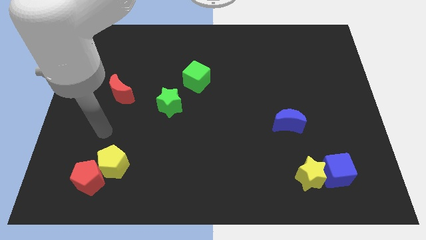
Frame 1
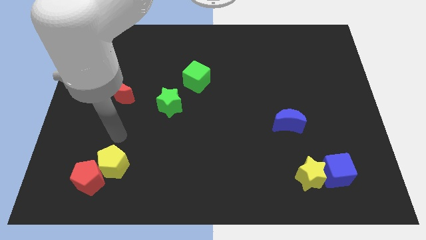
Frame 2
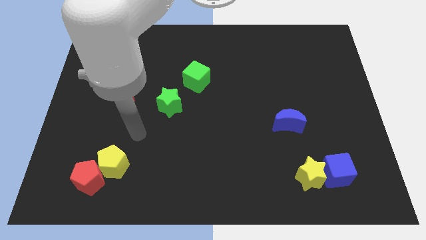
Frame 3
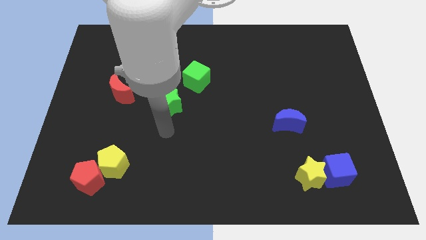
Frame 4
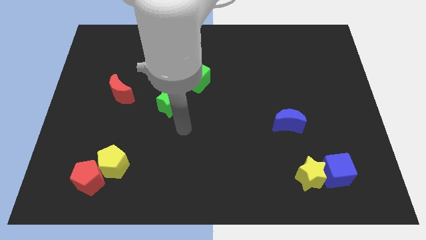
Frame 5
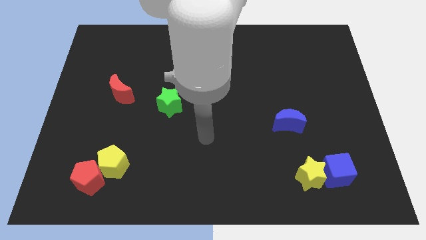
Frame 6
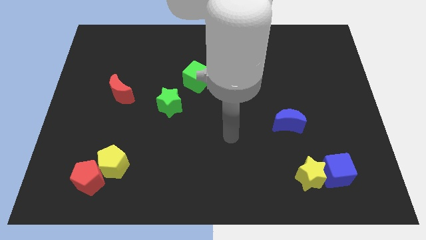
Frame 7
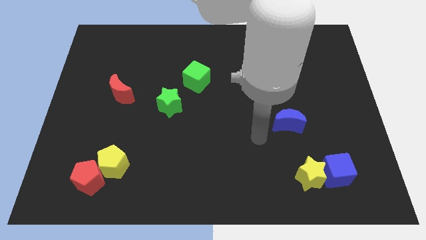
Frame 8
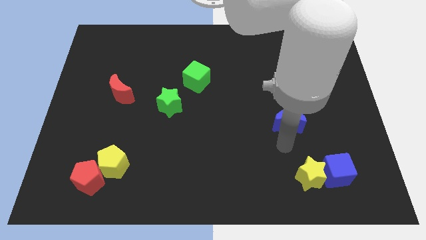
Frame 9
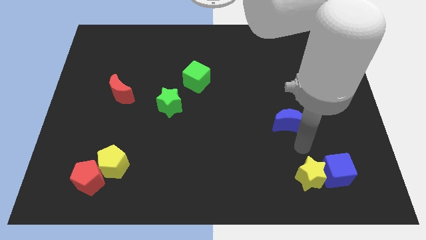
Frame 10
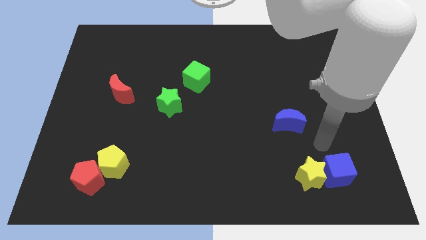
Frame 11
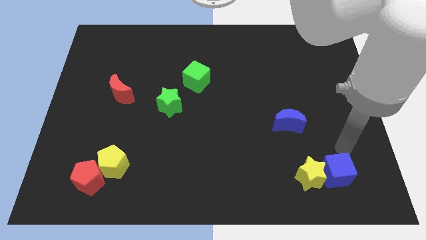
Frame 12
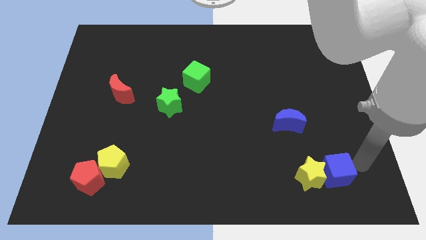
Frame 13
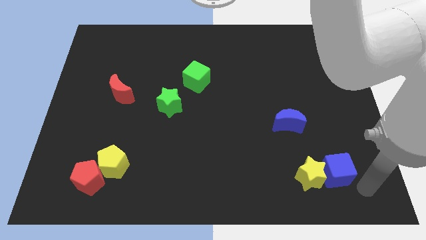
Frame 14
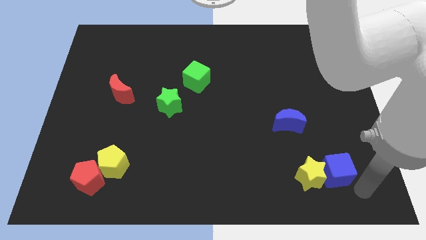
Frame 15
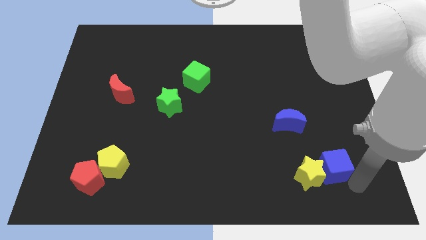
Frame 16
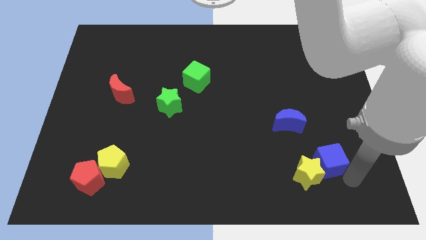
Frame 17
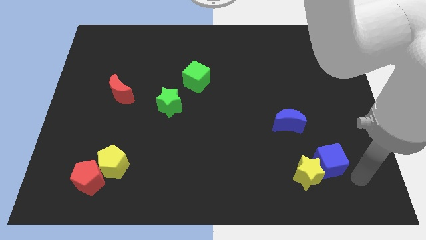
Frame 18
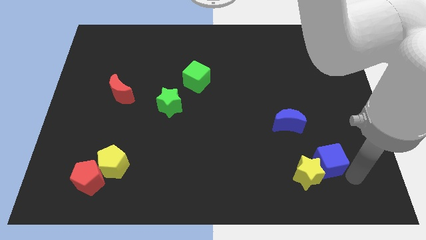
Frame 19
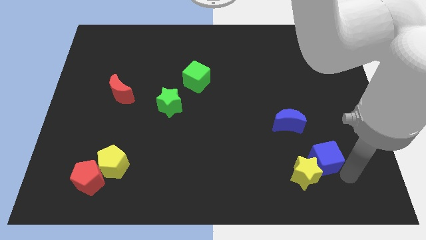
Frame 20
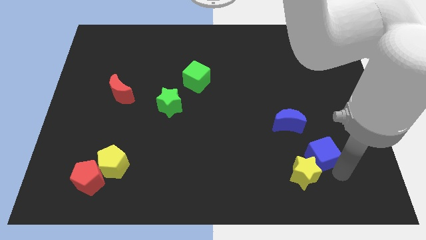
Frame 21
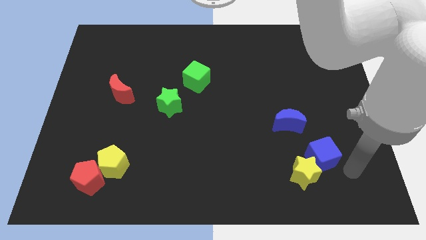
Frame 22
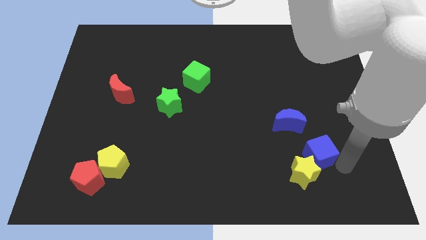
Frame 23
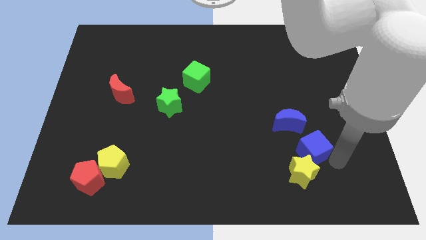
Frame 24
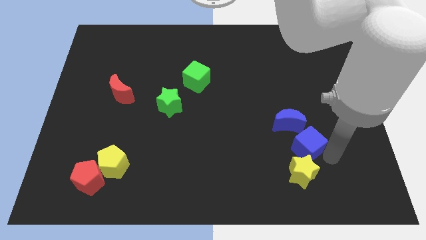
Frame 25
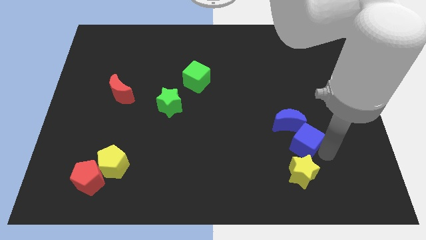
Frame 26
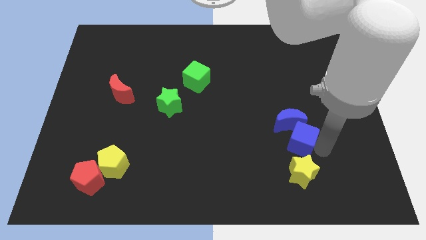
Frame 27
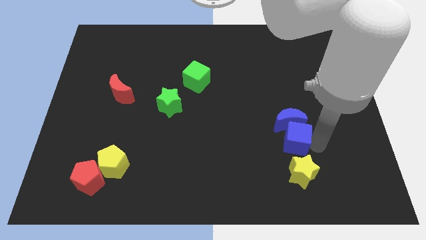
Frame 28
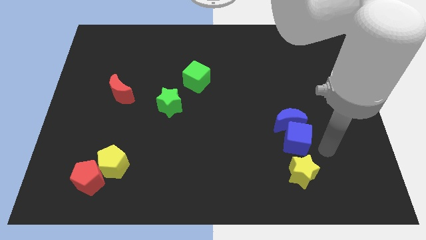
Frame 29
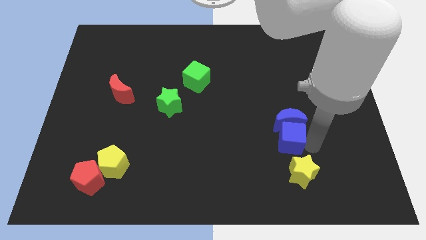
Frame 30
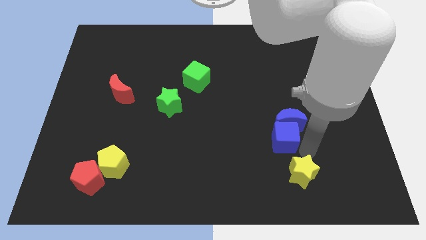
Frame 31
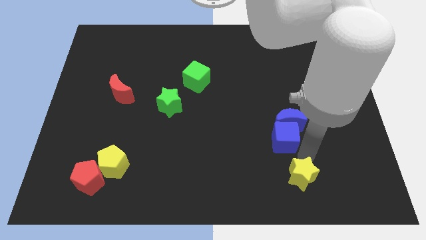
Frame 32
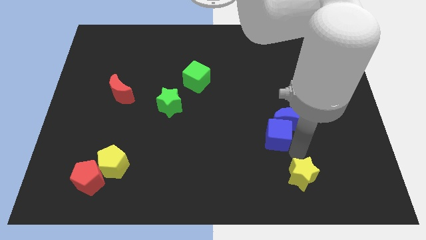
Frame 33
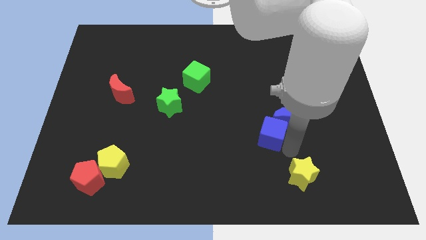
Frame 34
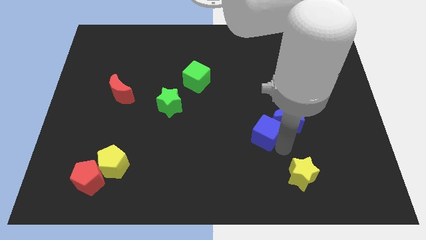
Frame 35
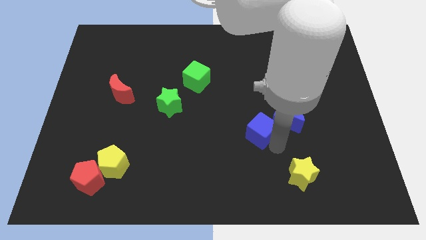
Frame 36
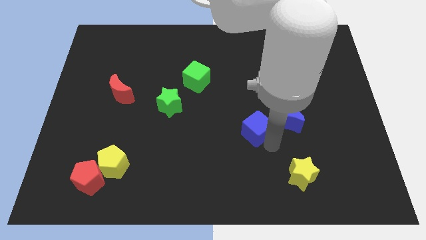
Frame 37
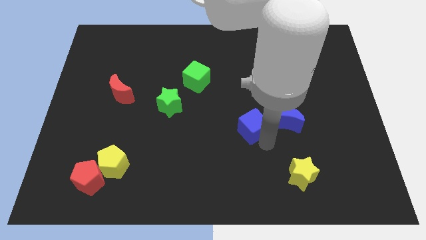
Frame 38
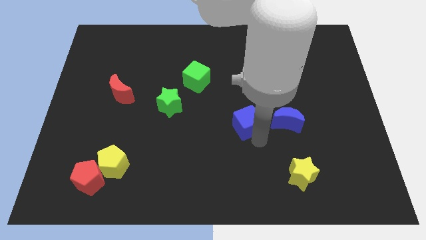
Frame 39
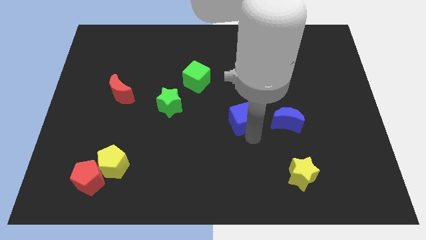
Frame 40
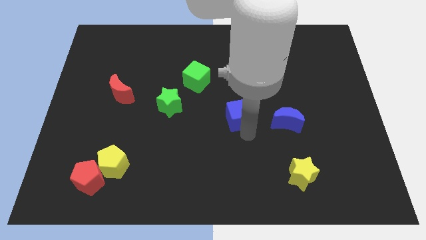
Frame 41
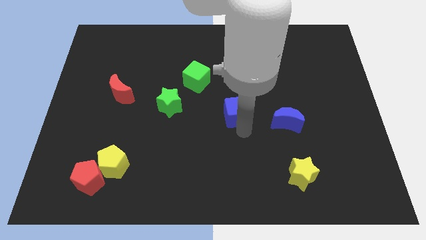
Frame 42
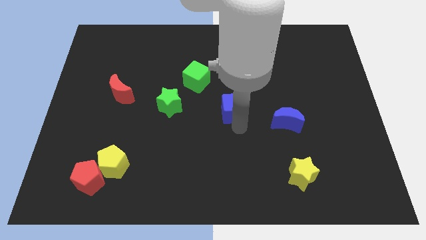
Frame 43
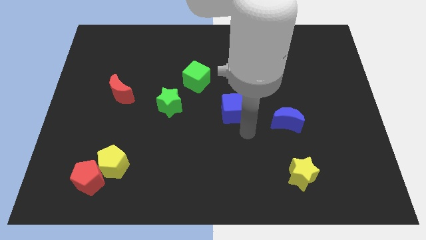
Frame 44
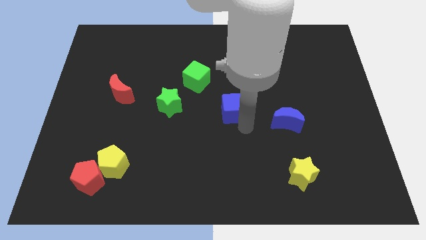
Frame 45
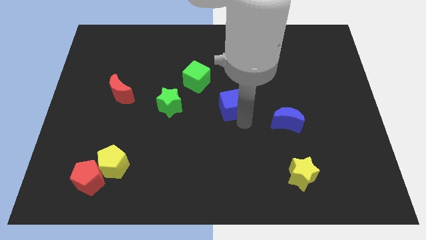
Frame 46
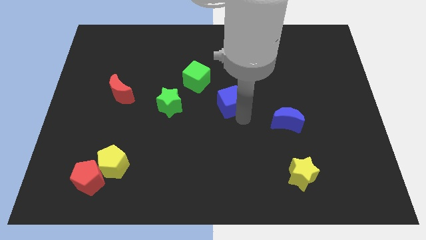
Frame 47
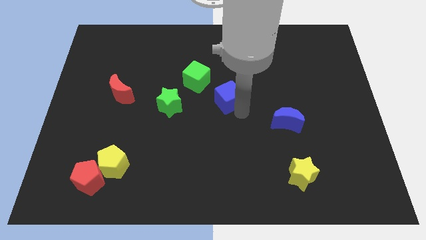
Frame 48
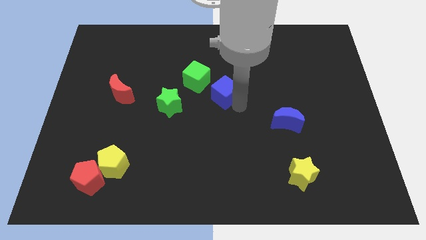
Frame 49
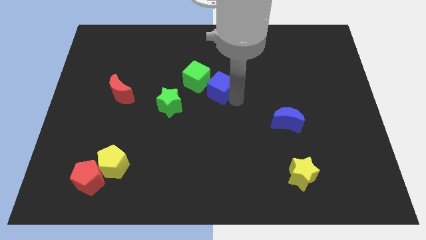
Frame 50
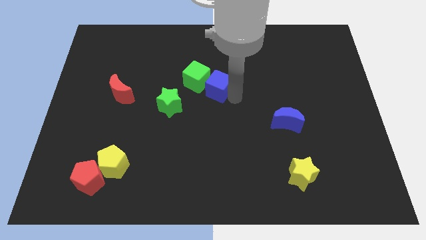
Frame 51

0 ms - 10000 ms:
slide the blue cube close to the green cube

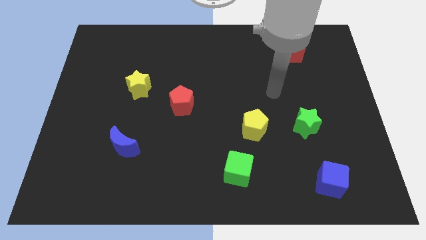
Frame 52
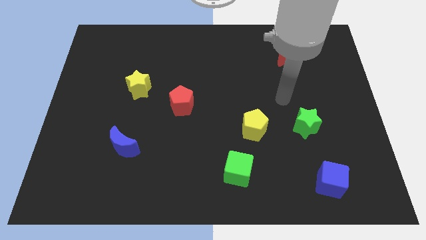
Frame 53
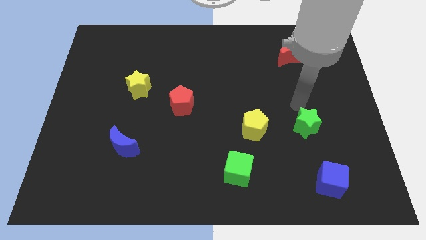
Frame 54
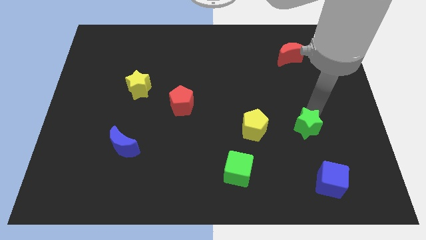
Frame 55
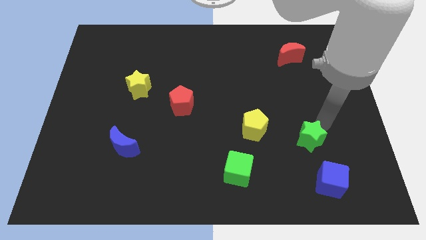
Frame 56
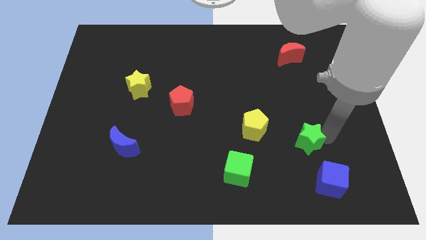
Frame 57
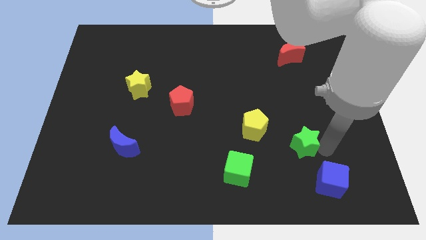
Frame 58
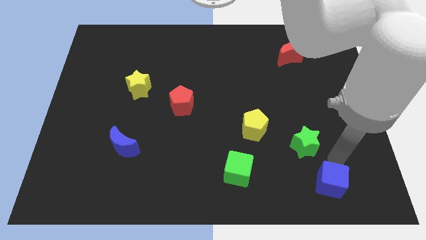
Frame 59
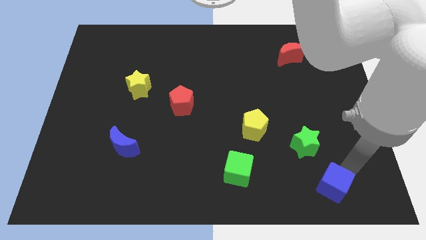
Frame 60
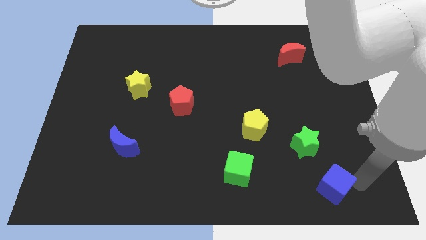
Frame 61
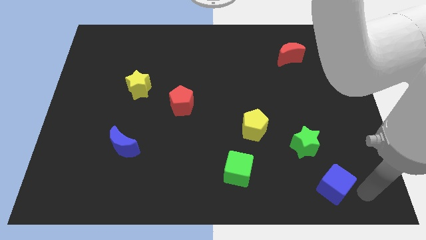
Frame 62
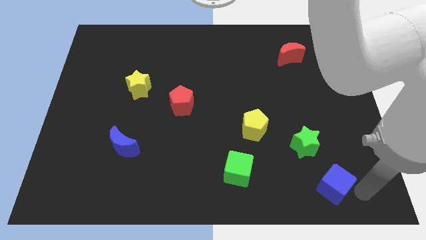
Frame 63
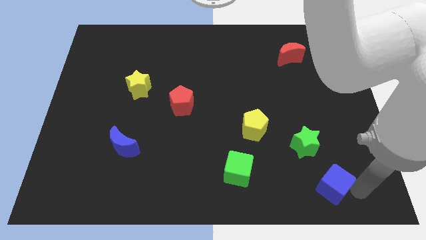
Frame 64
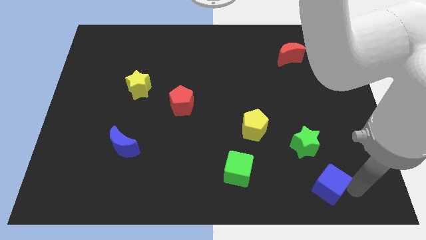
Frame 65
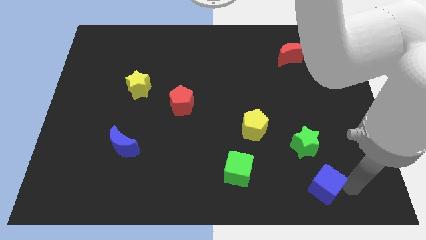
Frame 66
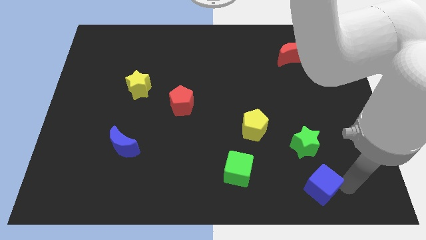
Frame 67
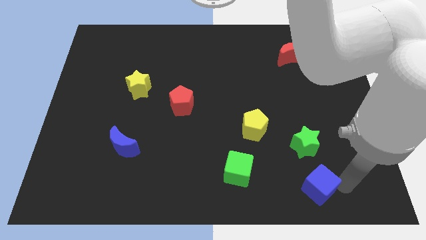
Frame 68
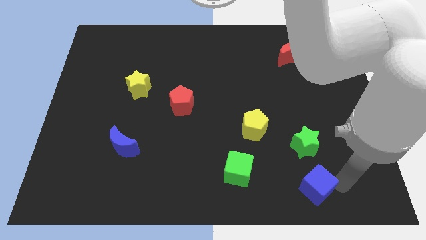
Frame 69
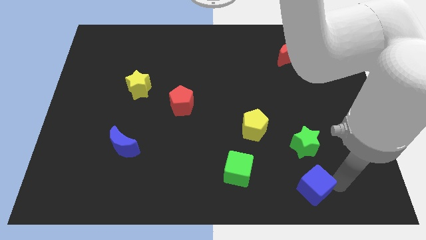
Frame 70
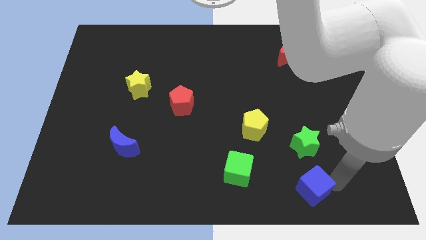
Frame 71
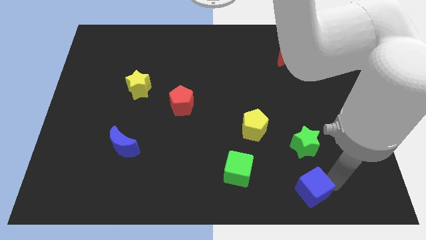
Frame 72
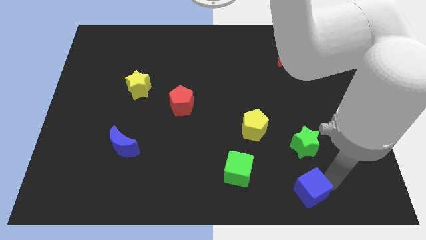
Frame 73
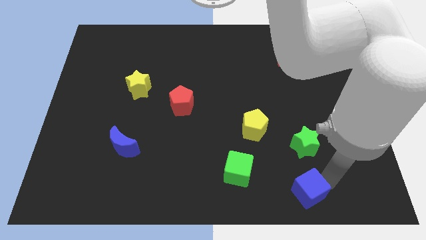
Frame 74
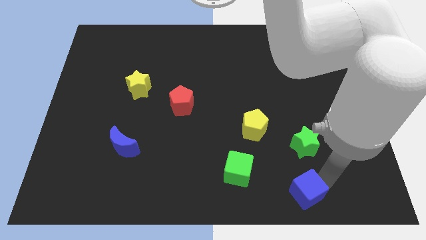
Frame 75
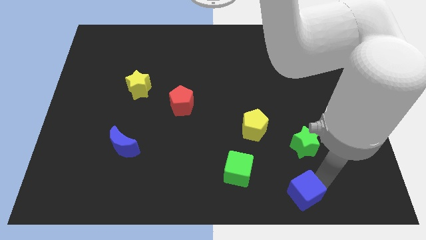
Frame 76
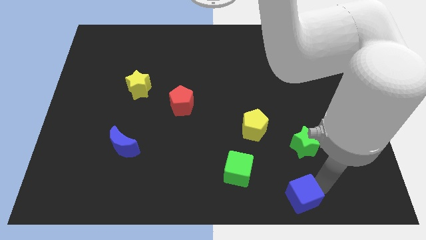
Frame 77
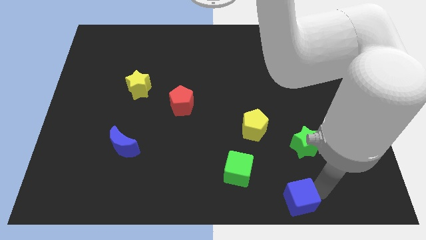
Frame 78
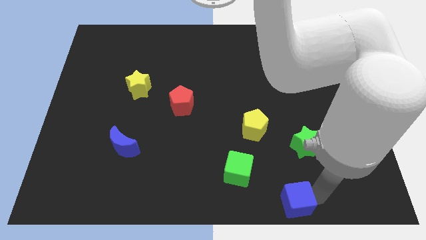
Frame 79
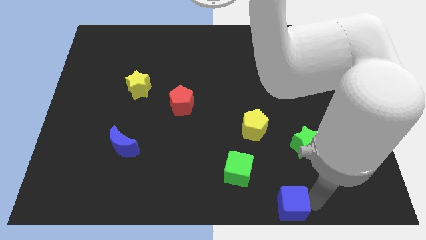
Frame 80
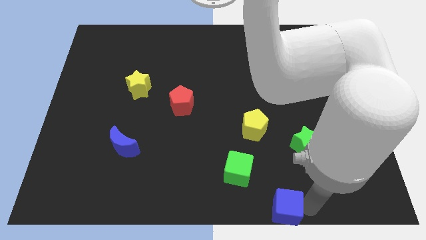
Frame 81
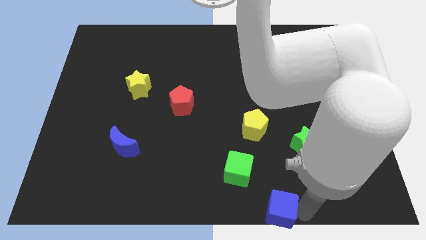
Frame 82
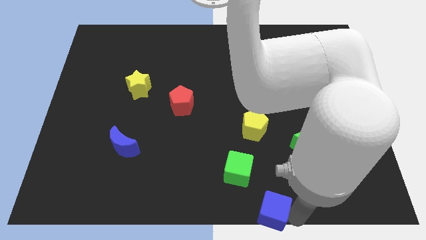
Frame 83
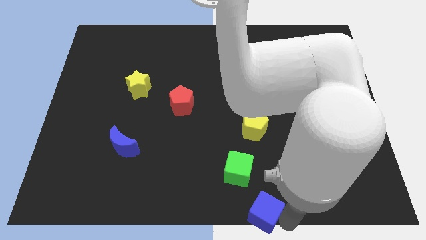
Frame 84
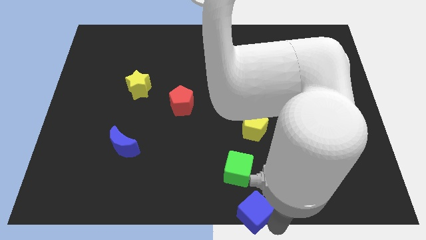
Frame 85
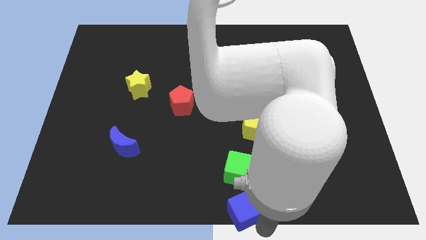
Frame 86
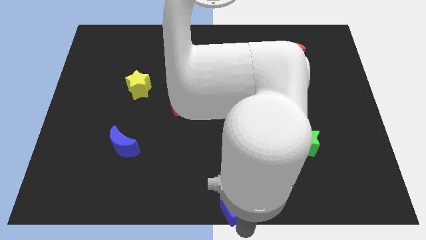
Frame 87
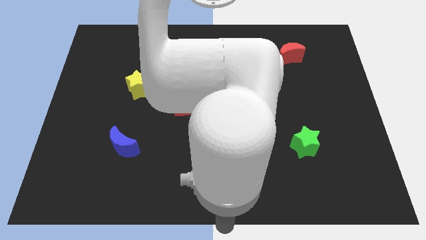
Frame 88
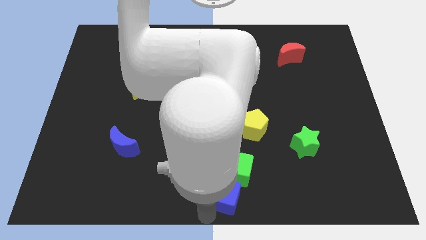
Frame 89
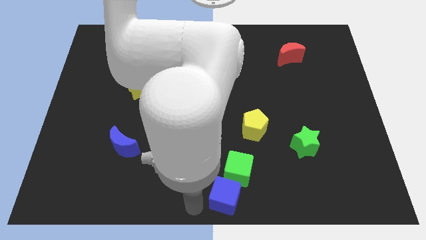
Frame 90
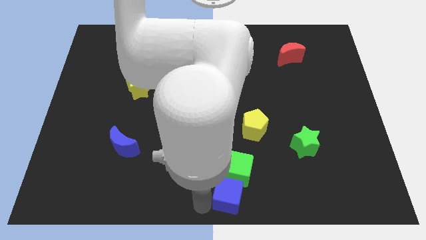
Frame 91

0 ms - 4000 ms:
push the blue cube towards the green cube
